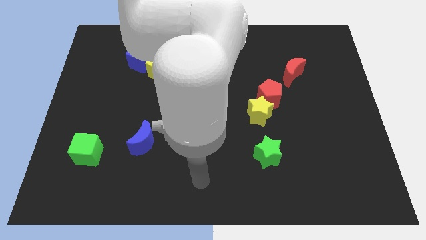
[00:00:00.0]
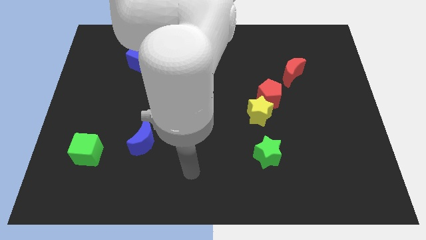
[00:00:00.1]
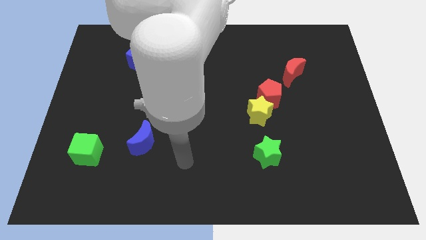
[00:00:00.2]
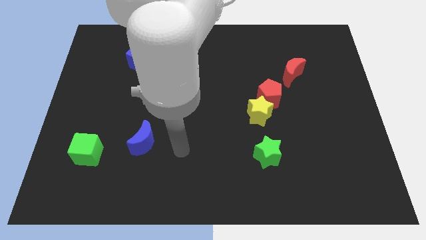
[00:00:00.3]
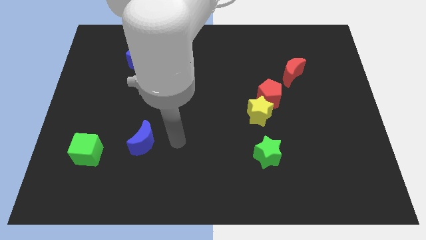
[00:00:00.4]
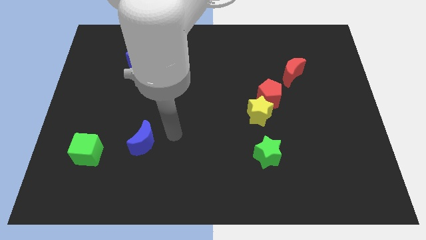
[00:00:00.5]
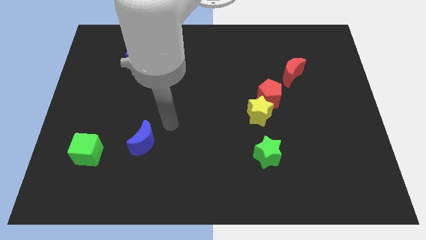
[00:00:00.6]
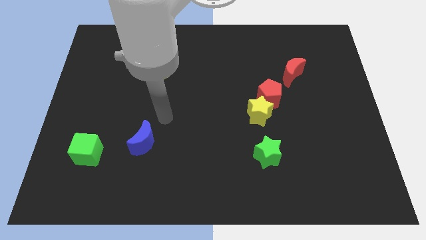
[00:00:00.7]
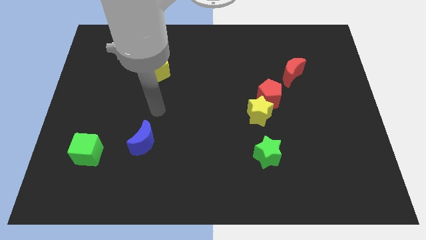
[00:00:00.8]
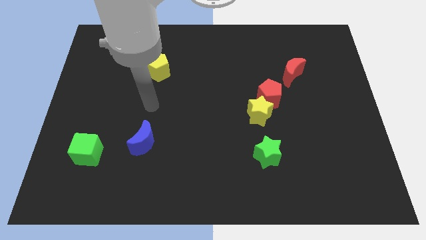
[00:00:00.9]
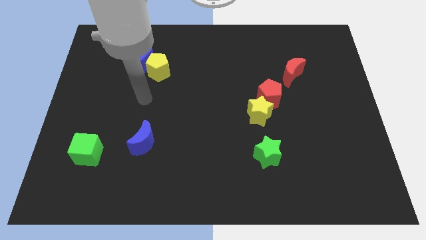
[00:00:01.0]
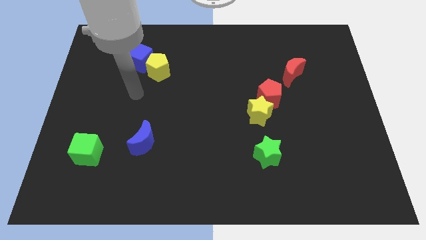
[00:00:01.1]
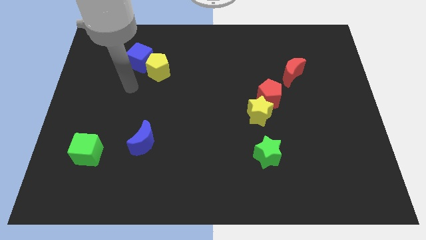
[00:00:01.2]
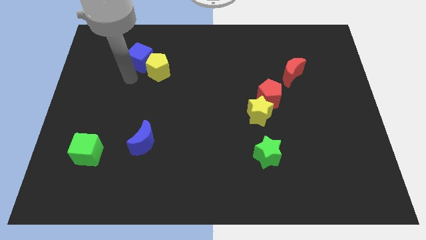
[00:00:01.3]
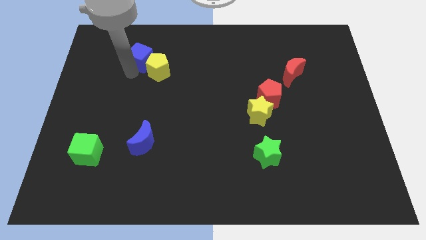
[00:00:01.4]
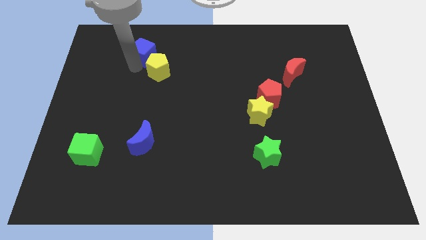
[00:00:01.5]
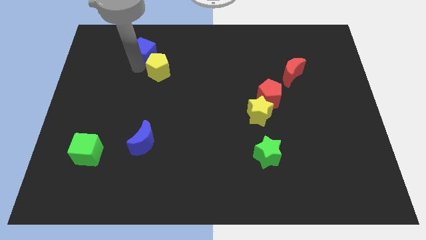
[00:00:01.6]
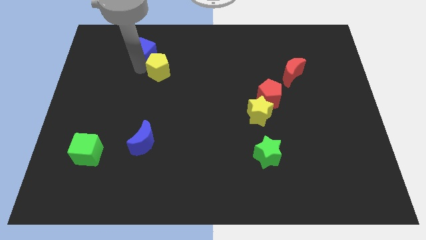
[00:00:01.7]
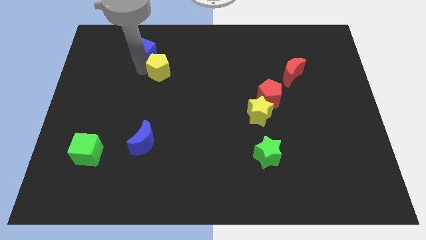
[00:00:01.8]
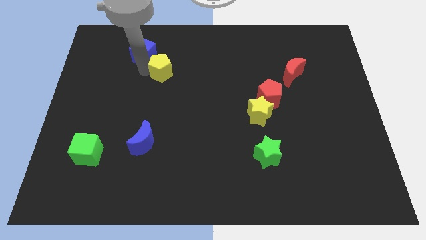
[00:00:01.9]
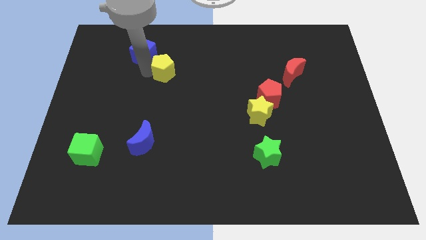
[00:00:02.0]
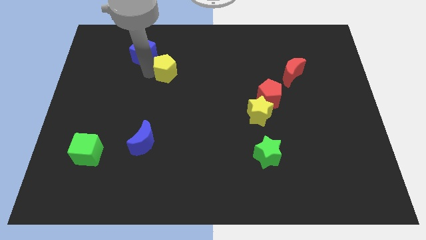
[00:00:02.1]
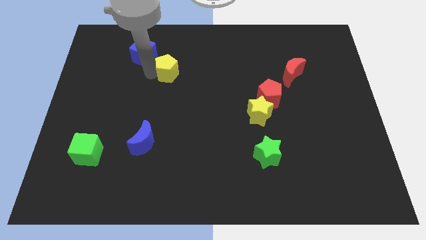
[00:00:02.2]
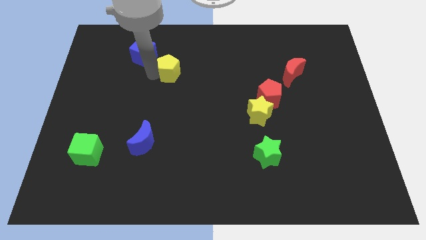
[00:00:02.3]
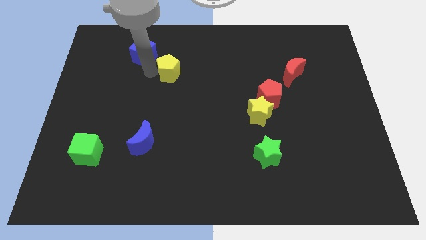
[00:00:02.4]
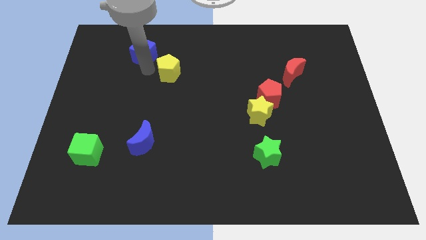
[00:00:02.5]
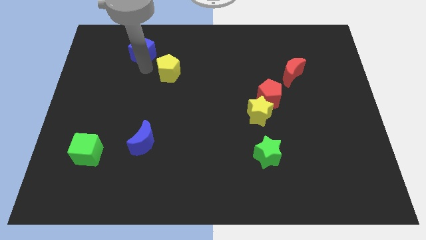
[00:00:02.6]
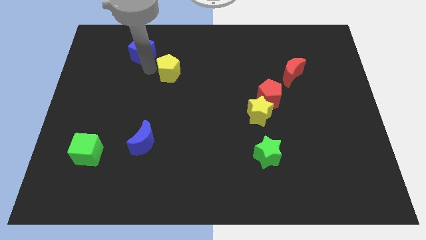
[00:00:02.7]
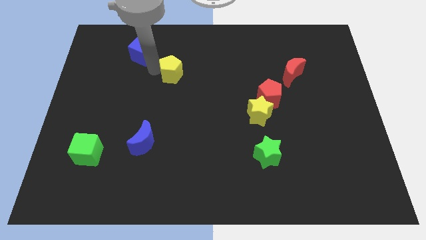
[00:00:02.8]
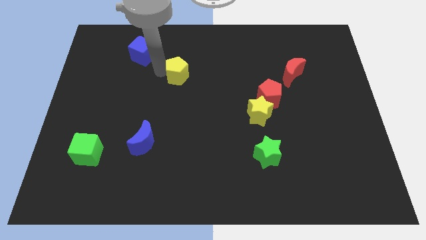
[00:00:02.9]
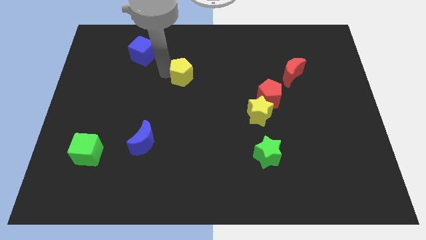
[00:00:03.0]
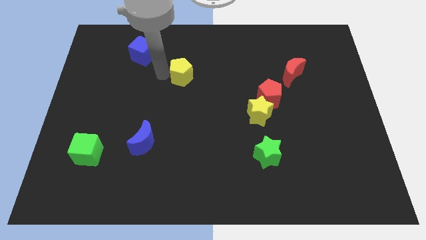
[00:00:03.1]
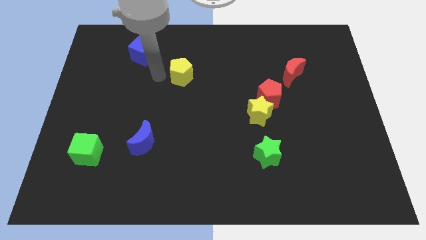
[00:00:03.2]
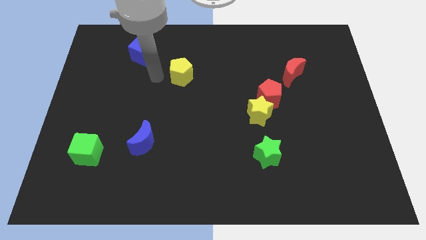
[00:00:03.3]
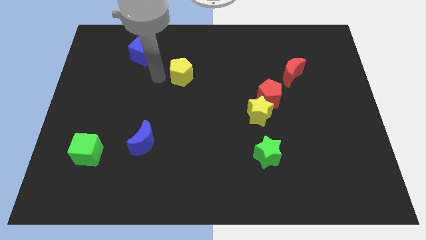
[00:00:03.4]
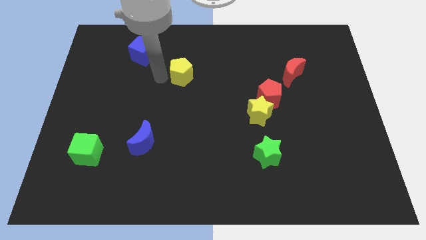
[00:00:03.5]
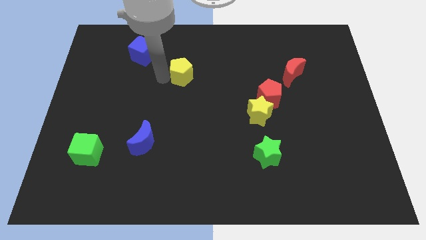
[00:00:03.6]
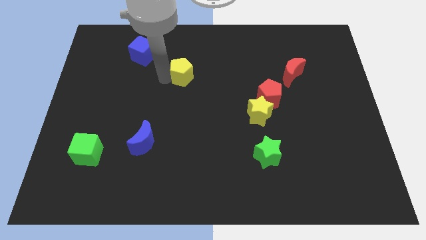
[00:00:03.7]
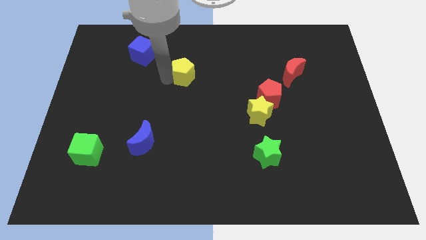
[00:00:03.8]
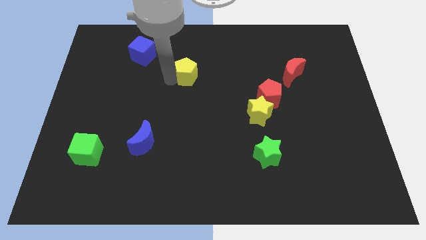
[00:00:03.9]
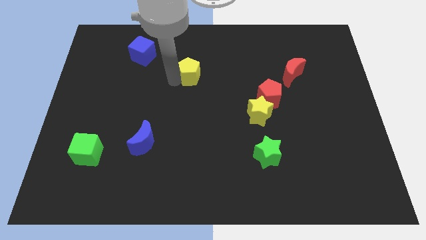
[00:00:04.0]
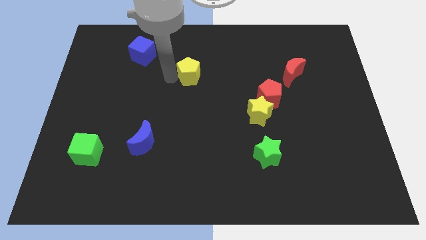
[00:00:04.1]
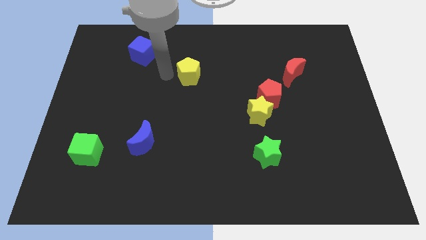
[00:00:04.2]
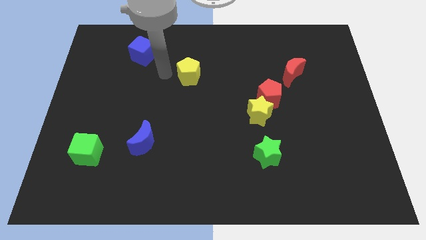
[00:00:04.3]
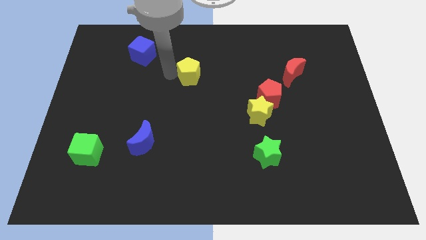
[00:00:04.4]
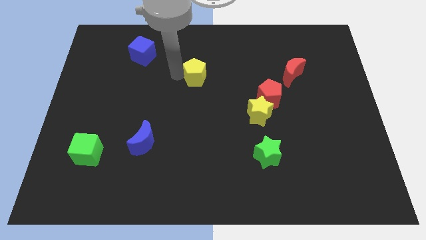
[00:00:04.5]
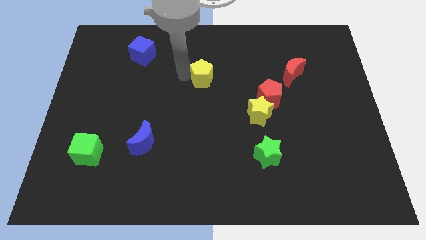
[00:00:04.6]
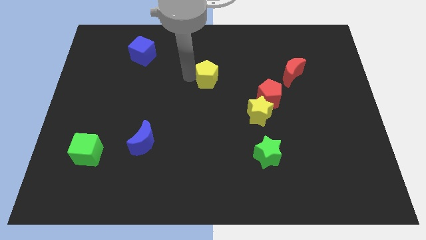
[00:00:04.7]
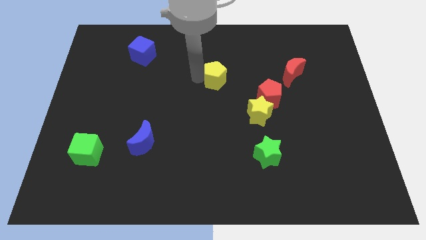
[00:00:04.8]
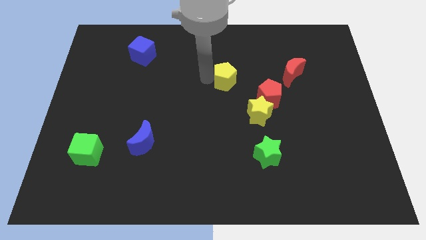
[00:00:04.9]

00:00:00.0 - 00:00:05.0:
slide the yellow pentagon to the top left of the red pentagon

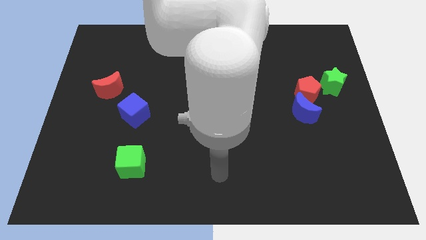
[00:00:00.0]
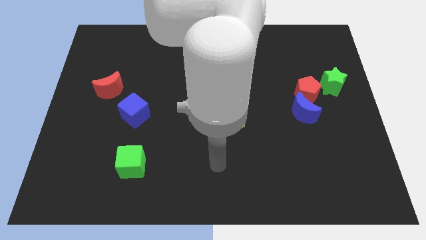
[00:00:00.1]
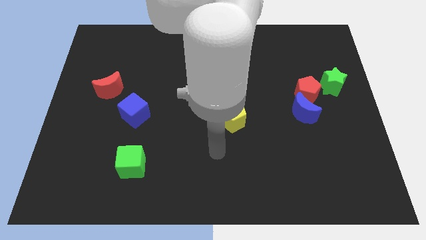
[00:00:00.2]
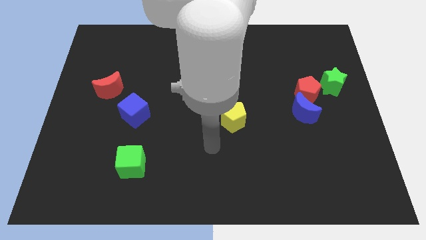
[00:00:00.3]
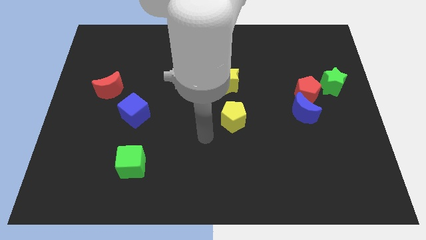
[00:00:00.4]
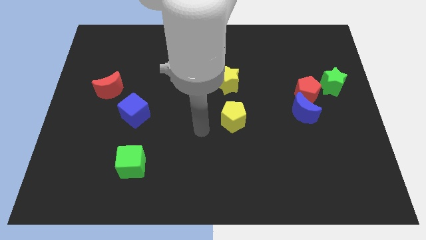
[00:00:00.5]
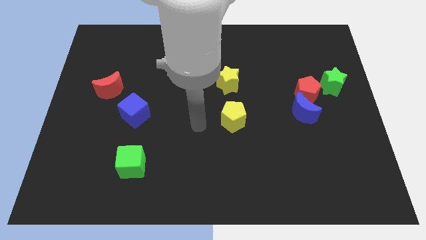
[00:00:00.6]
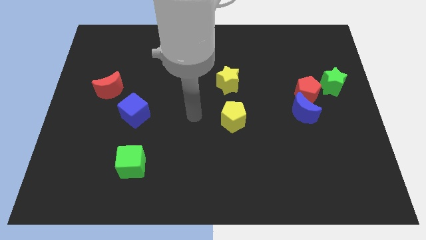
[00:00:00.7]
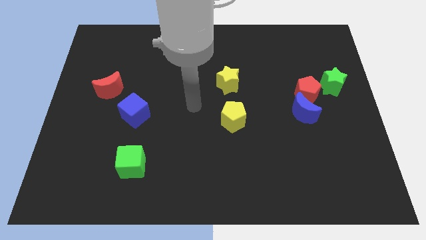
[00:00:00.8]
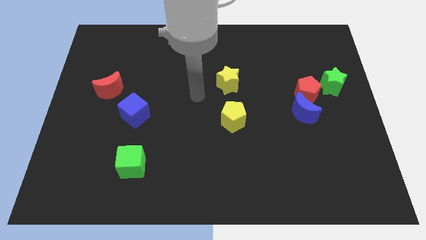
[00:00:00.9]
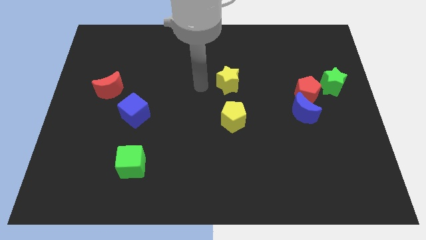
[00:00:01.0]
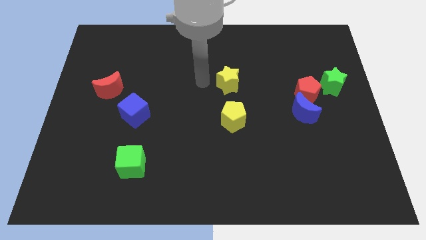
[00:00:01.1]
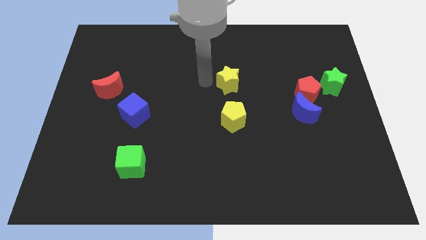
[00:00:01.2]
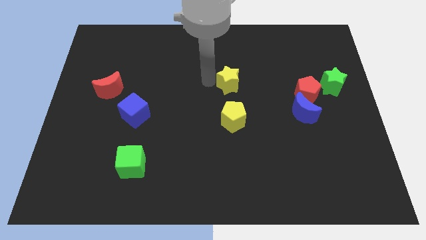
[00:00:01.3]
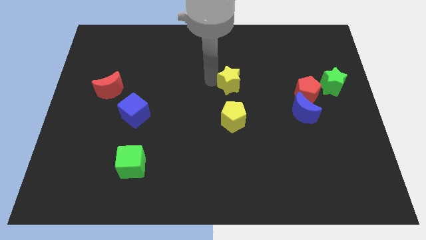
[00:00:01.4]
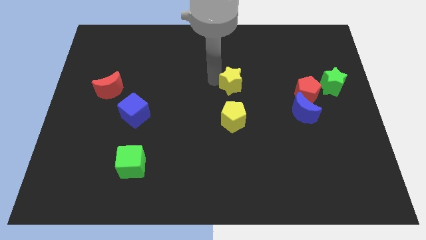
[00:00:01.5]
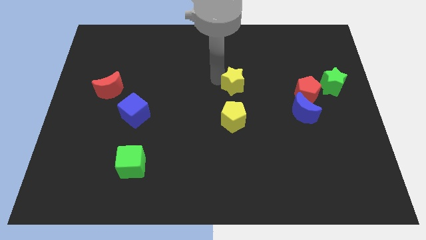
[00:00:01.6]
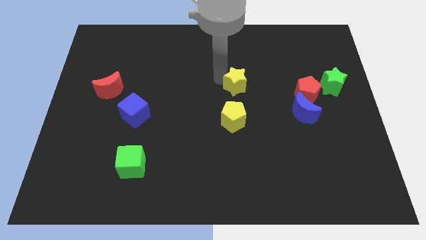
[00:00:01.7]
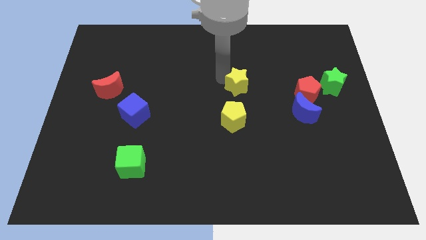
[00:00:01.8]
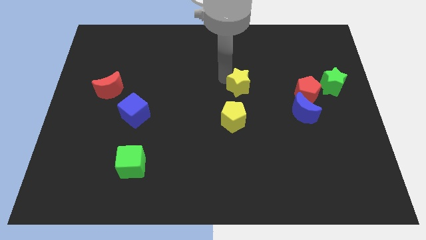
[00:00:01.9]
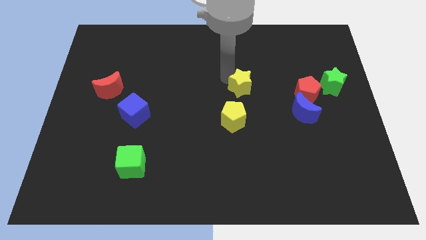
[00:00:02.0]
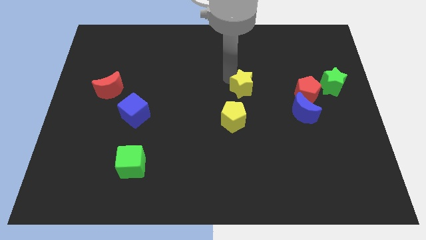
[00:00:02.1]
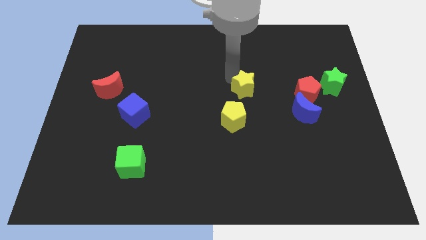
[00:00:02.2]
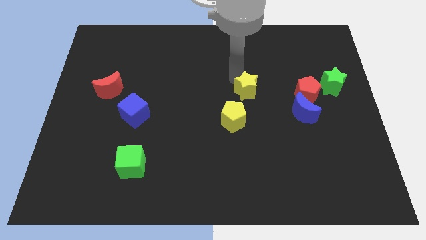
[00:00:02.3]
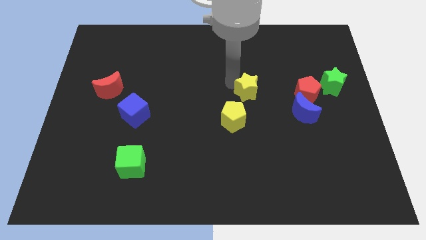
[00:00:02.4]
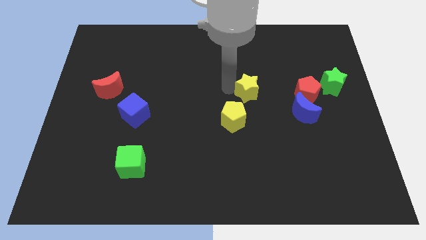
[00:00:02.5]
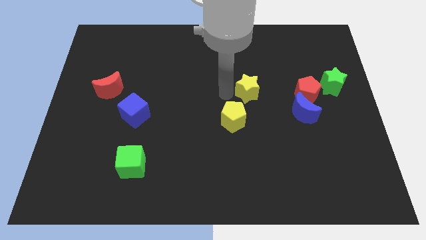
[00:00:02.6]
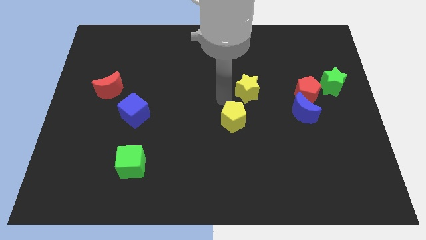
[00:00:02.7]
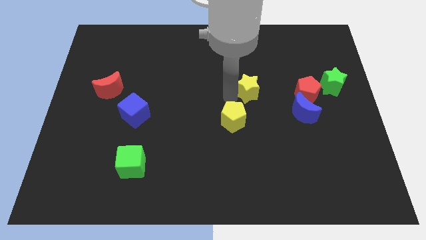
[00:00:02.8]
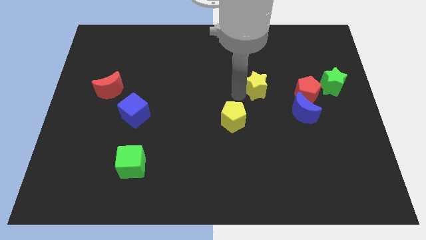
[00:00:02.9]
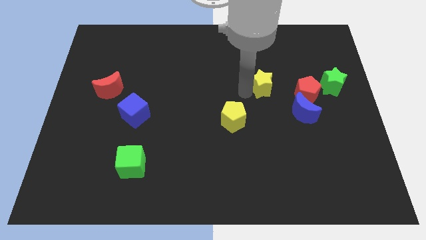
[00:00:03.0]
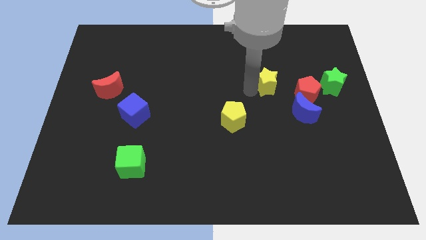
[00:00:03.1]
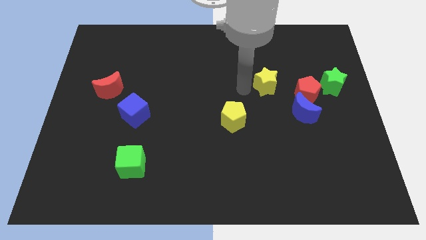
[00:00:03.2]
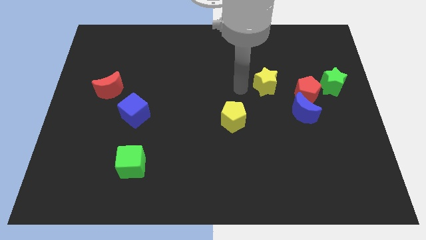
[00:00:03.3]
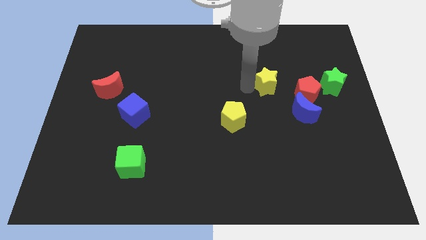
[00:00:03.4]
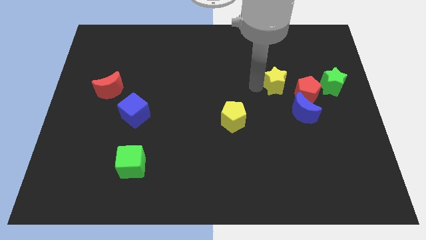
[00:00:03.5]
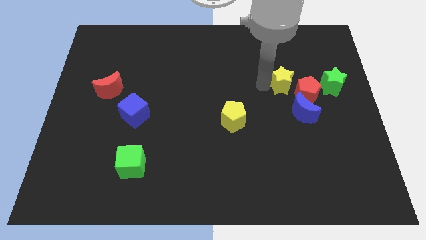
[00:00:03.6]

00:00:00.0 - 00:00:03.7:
slide the yellow star above the blue moon
